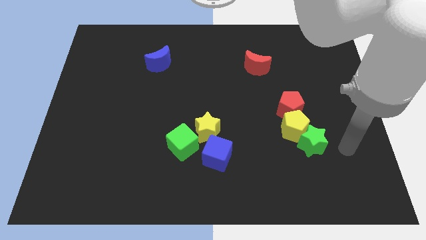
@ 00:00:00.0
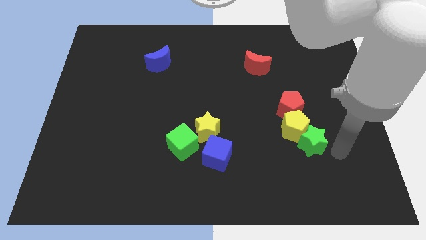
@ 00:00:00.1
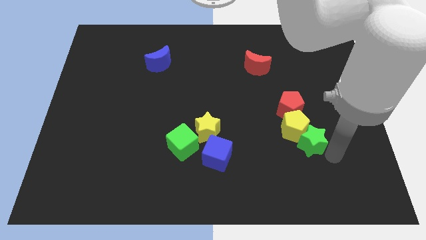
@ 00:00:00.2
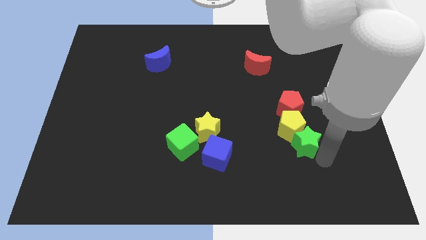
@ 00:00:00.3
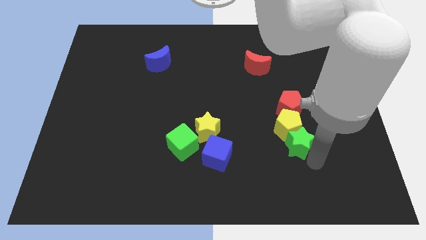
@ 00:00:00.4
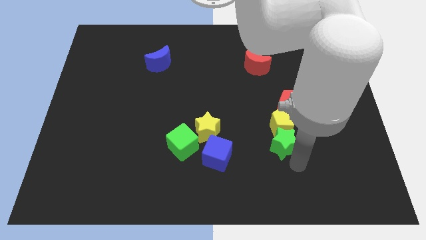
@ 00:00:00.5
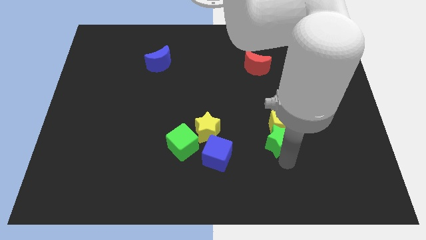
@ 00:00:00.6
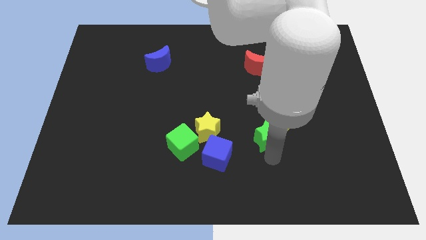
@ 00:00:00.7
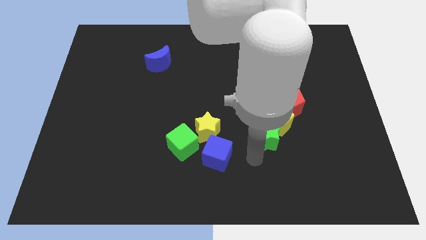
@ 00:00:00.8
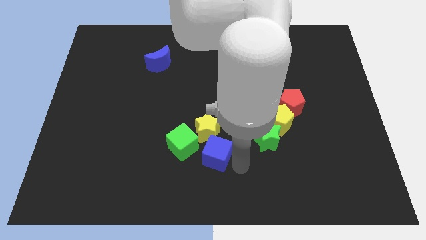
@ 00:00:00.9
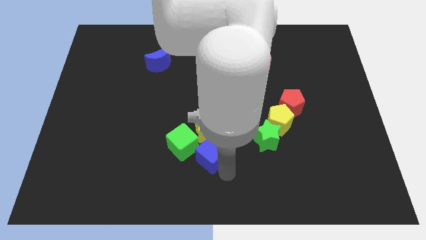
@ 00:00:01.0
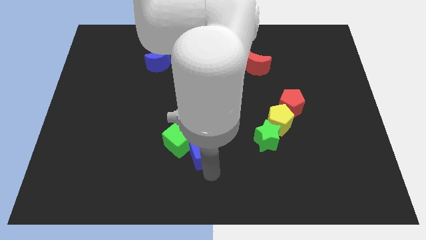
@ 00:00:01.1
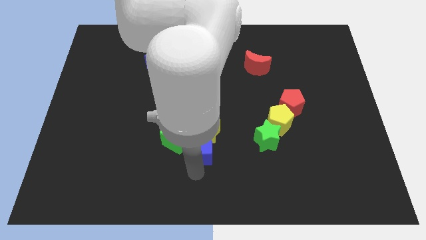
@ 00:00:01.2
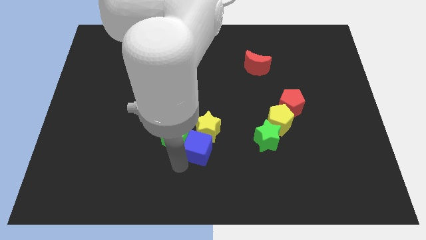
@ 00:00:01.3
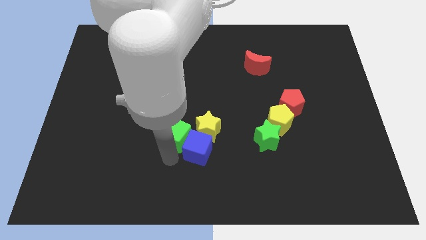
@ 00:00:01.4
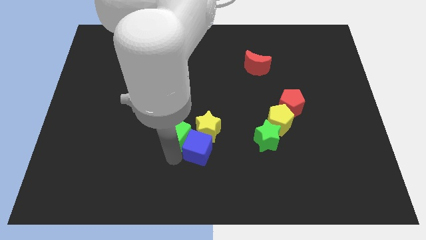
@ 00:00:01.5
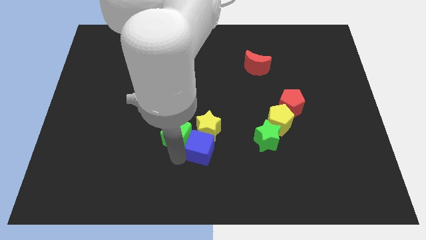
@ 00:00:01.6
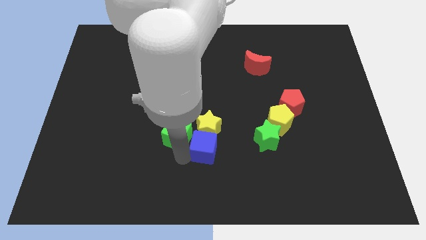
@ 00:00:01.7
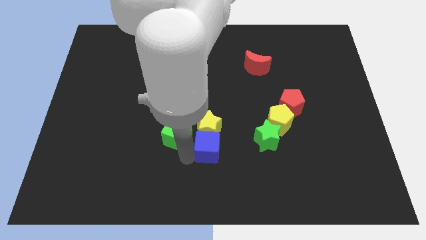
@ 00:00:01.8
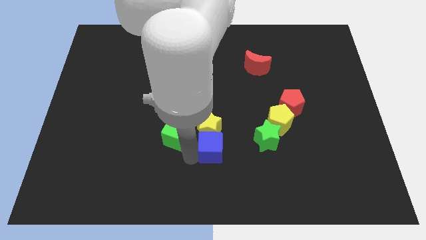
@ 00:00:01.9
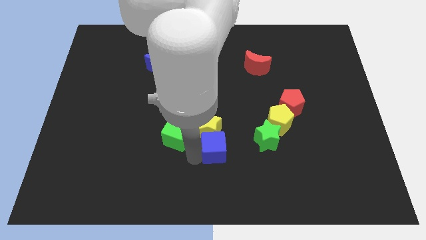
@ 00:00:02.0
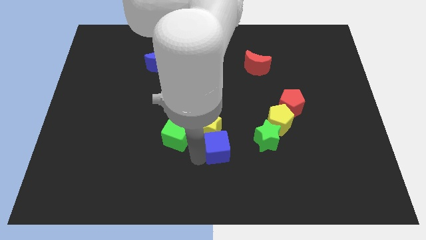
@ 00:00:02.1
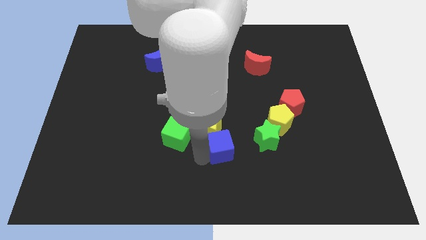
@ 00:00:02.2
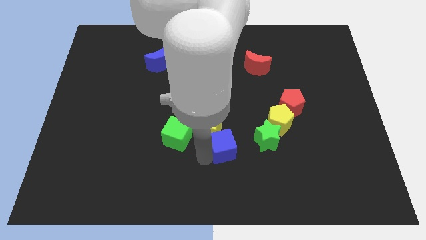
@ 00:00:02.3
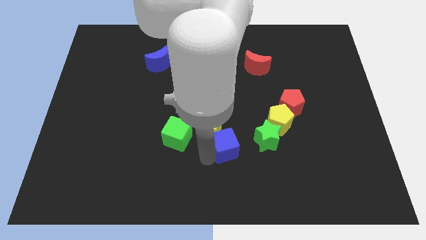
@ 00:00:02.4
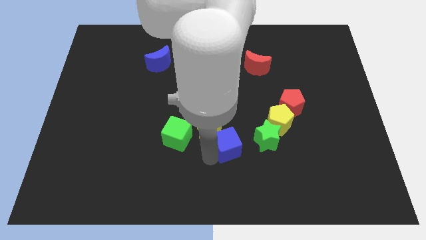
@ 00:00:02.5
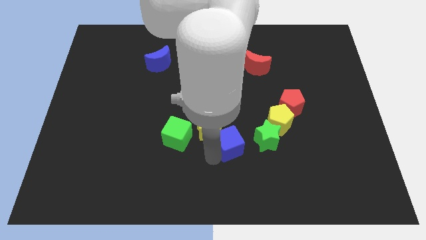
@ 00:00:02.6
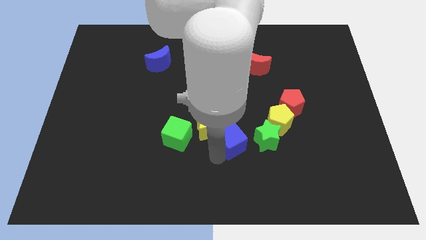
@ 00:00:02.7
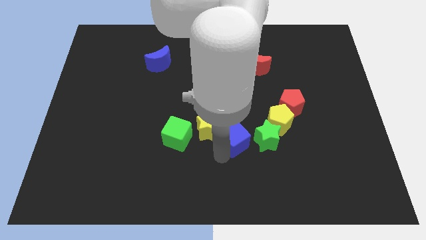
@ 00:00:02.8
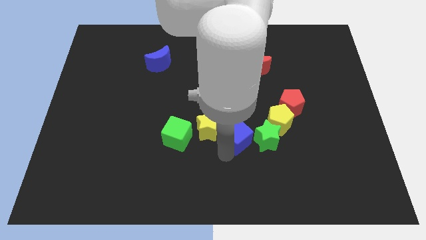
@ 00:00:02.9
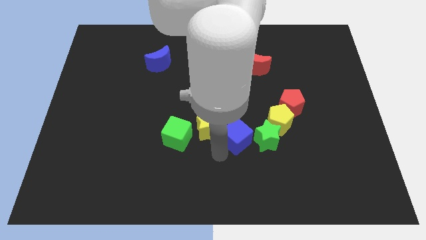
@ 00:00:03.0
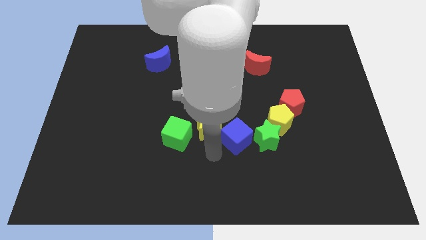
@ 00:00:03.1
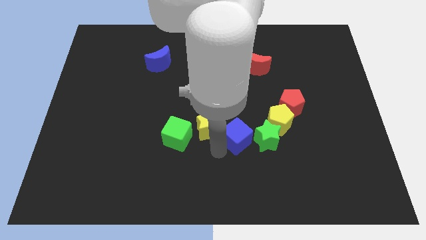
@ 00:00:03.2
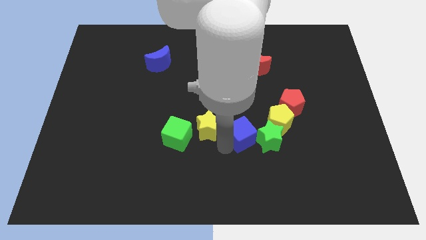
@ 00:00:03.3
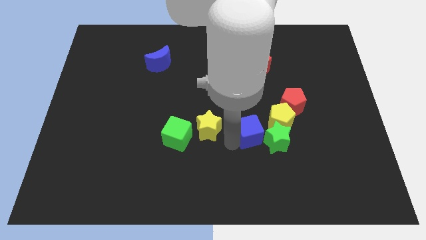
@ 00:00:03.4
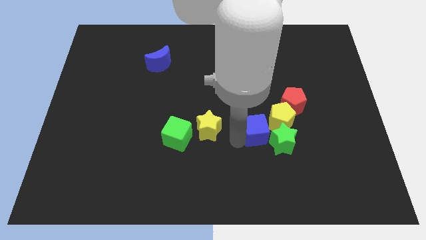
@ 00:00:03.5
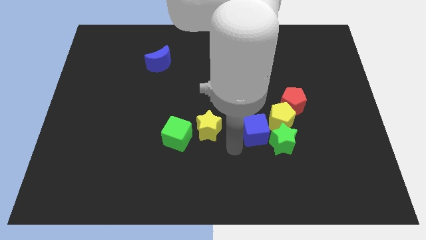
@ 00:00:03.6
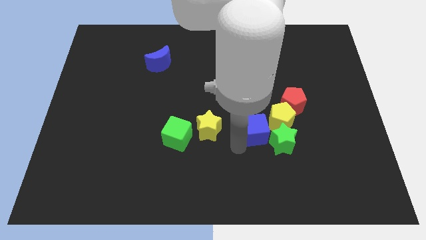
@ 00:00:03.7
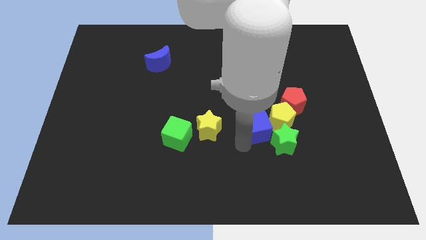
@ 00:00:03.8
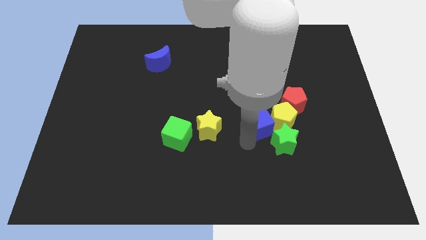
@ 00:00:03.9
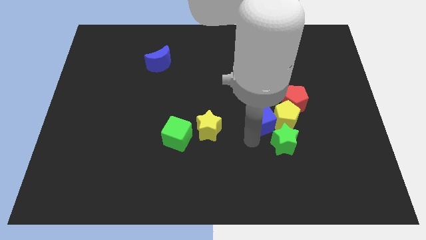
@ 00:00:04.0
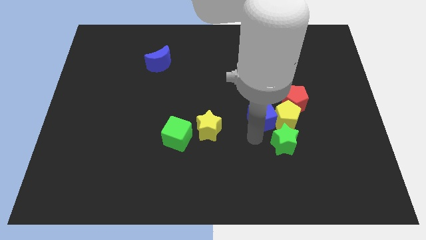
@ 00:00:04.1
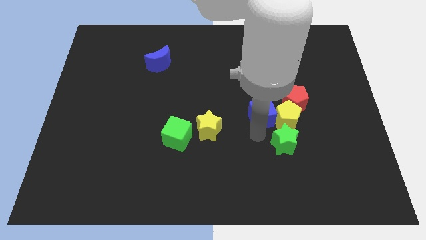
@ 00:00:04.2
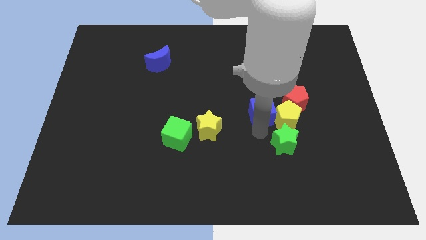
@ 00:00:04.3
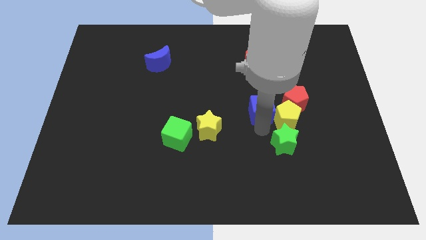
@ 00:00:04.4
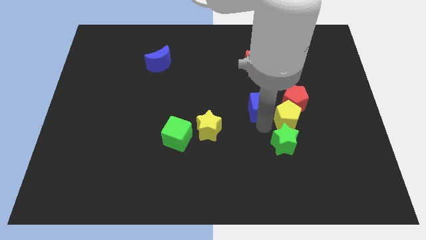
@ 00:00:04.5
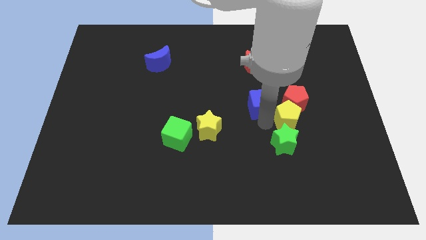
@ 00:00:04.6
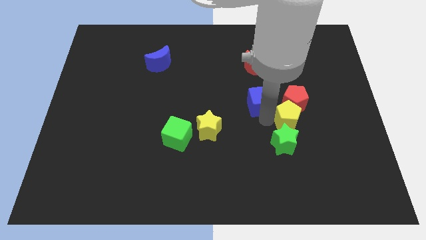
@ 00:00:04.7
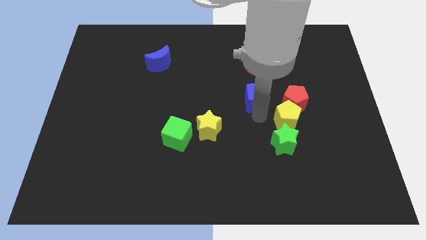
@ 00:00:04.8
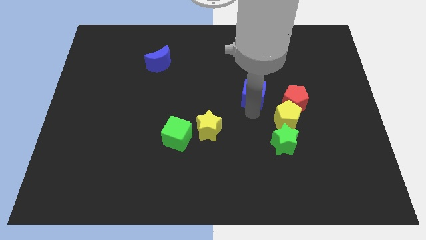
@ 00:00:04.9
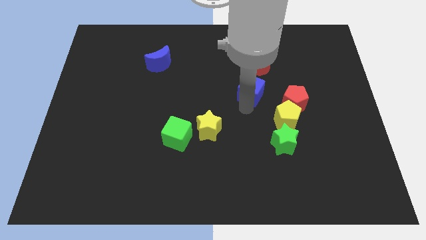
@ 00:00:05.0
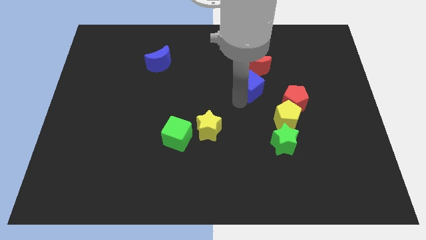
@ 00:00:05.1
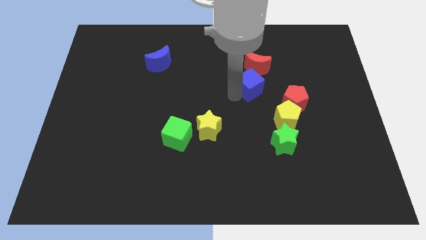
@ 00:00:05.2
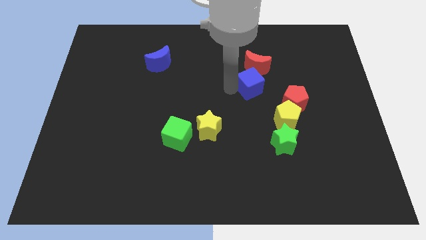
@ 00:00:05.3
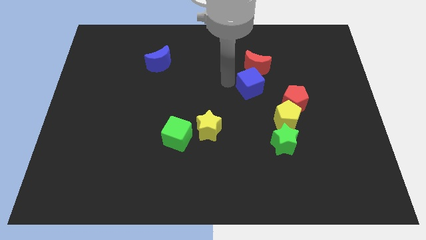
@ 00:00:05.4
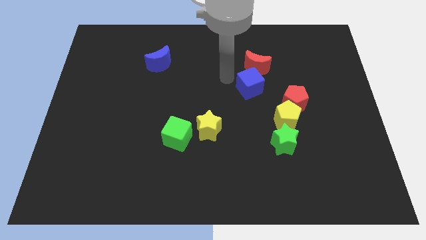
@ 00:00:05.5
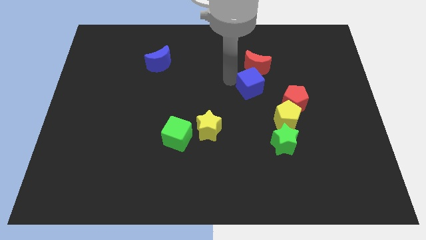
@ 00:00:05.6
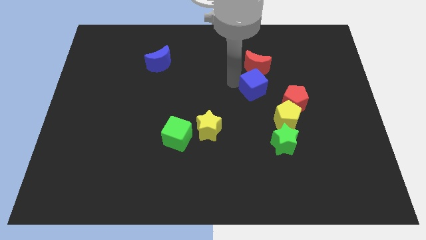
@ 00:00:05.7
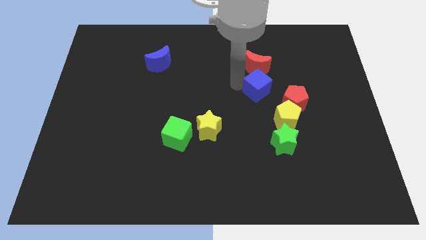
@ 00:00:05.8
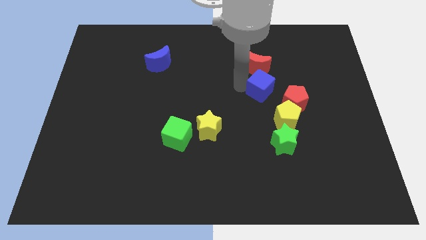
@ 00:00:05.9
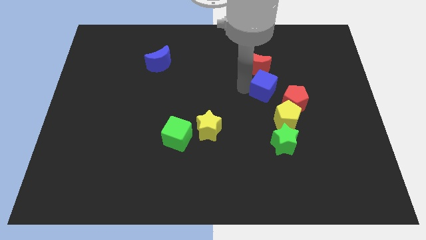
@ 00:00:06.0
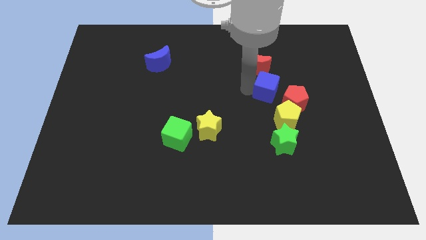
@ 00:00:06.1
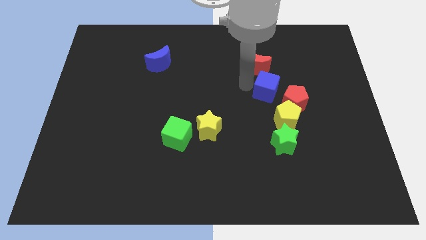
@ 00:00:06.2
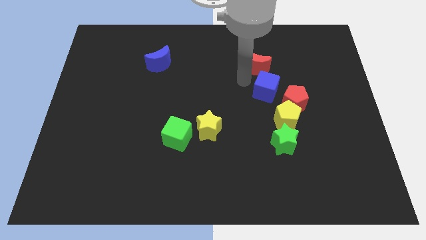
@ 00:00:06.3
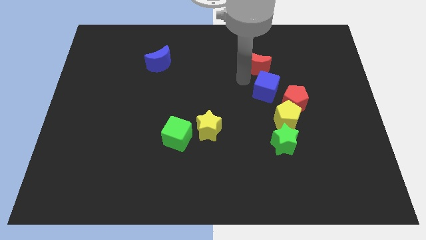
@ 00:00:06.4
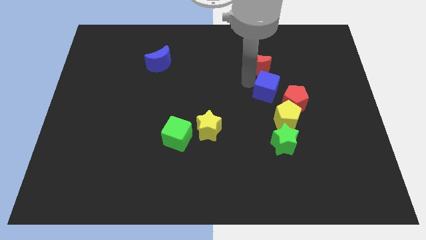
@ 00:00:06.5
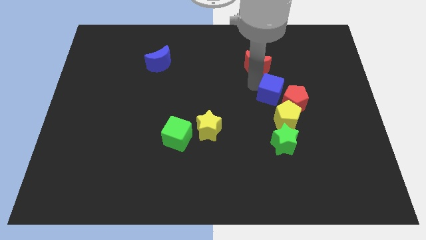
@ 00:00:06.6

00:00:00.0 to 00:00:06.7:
push the blue cube next to the red pentagon

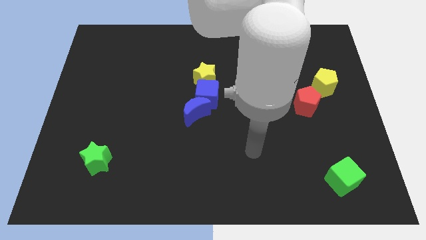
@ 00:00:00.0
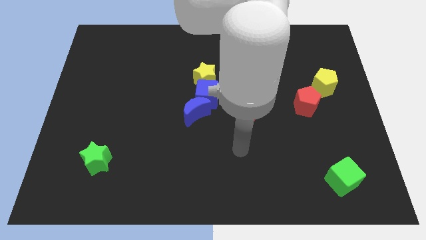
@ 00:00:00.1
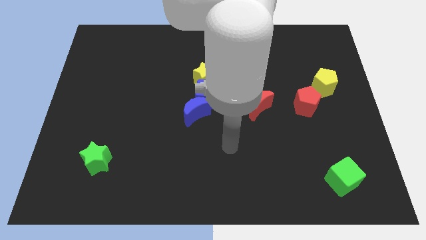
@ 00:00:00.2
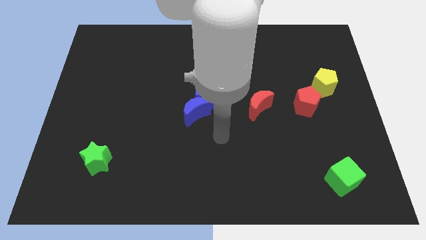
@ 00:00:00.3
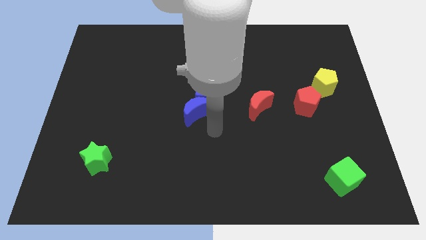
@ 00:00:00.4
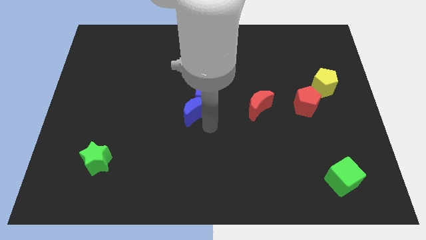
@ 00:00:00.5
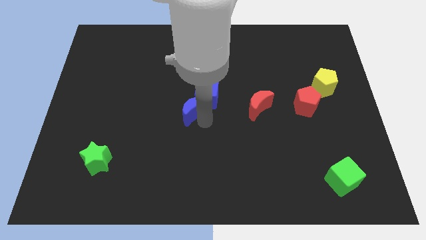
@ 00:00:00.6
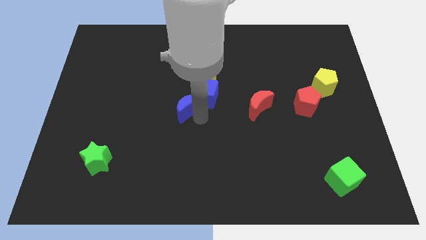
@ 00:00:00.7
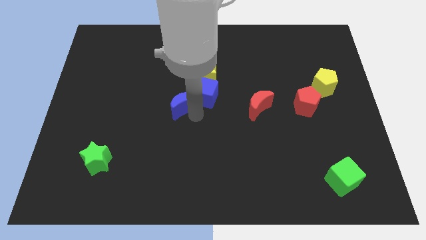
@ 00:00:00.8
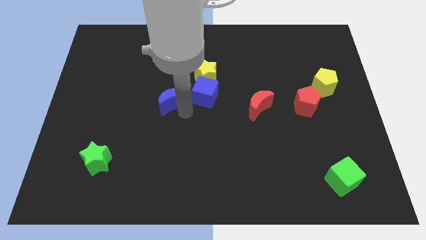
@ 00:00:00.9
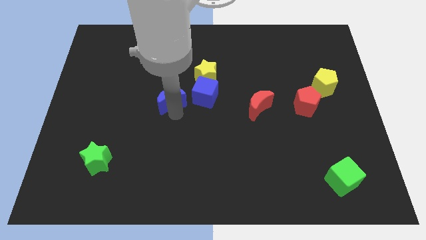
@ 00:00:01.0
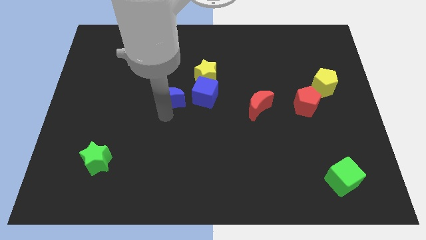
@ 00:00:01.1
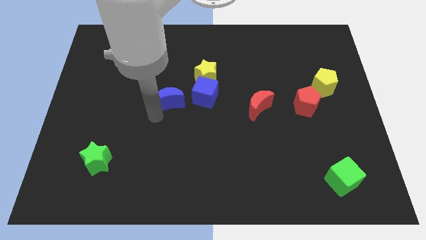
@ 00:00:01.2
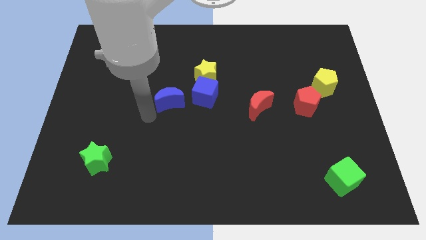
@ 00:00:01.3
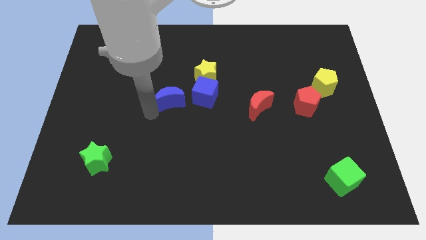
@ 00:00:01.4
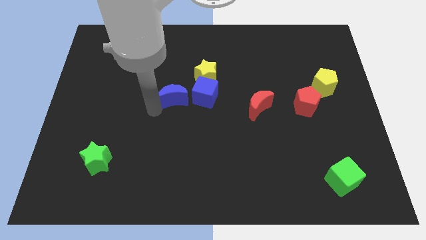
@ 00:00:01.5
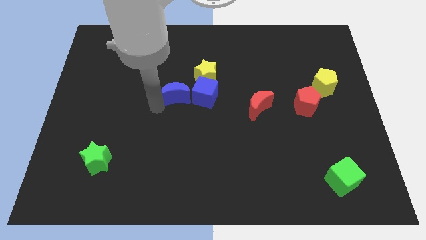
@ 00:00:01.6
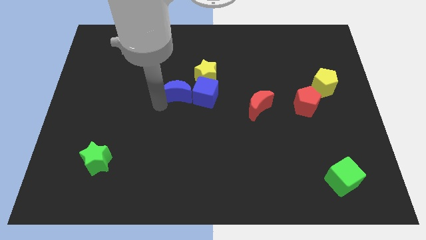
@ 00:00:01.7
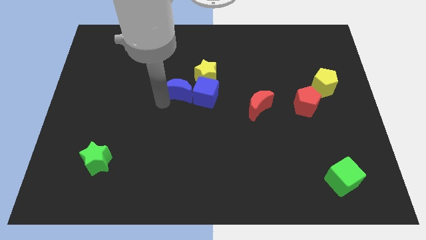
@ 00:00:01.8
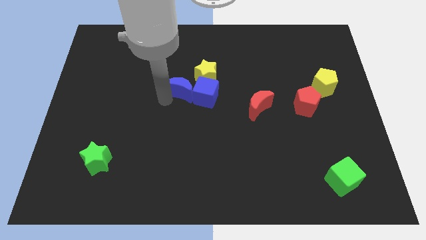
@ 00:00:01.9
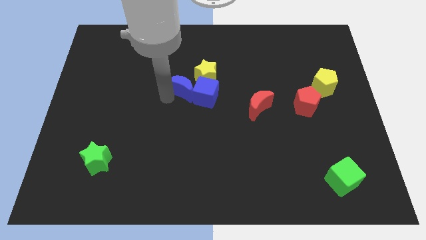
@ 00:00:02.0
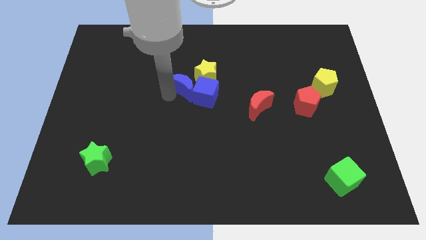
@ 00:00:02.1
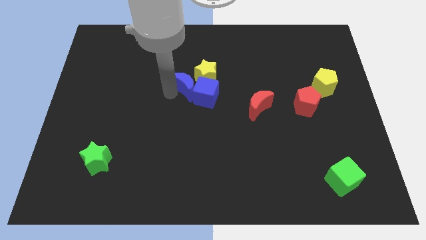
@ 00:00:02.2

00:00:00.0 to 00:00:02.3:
push the blue moon to the yellow star
